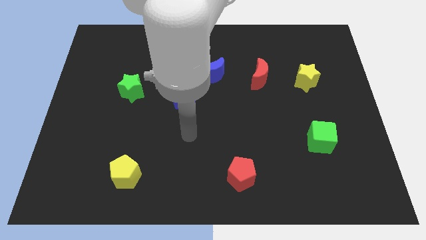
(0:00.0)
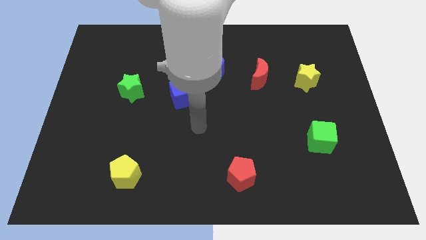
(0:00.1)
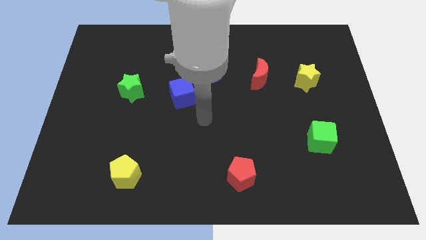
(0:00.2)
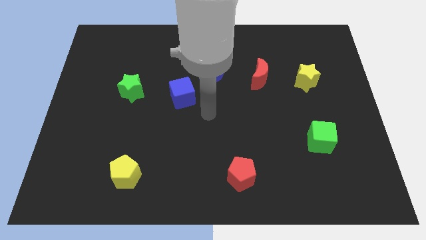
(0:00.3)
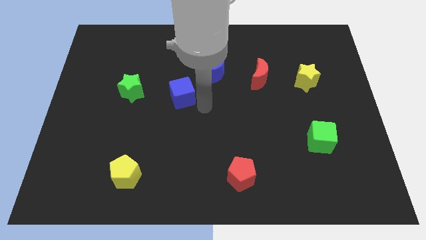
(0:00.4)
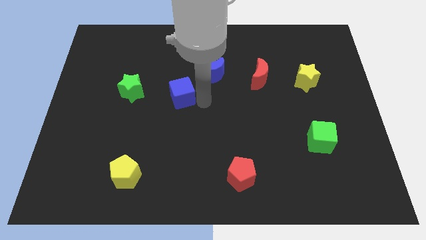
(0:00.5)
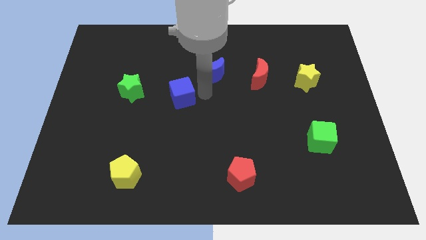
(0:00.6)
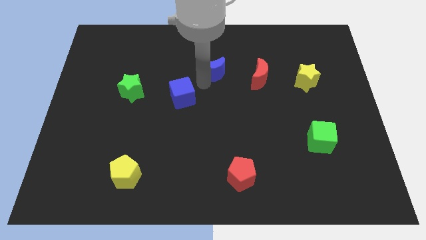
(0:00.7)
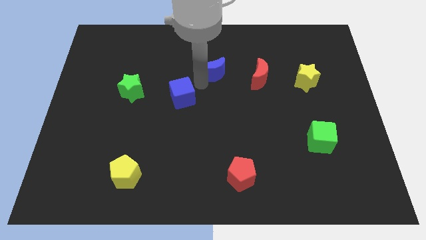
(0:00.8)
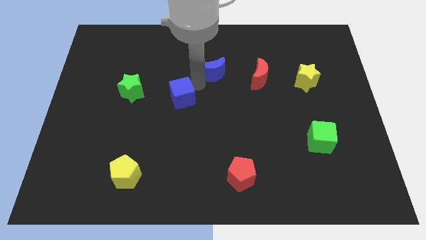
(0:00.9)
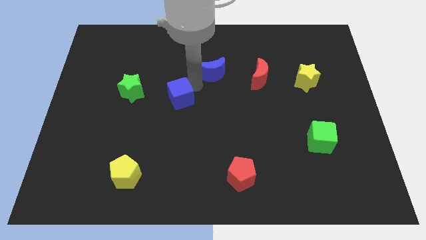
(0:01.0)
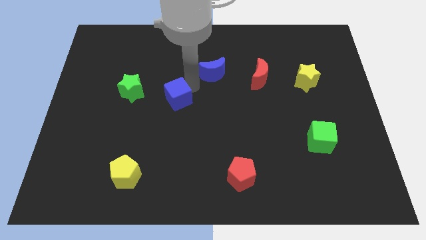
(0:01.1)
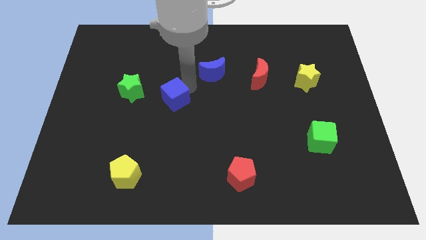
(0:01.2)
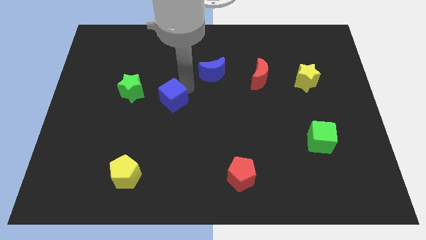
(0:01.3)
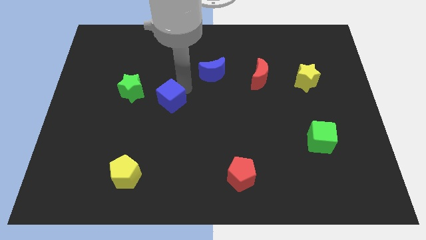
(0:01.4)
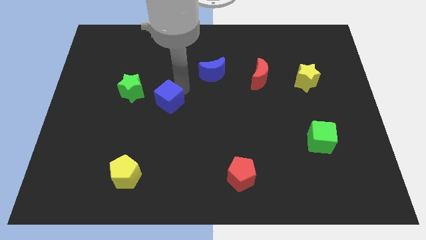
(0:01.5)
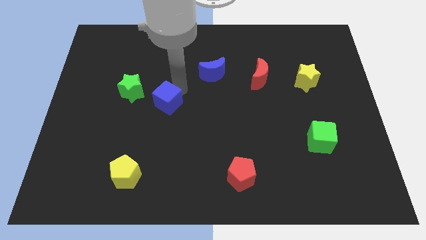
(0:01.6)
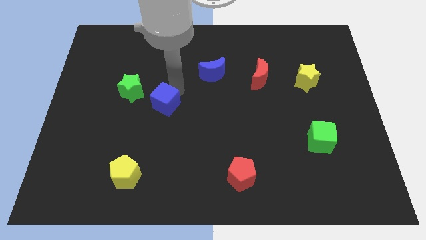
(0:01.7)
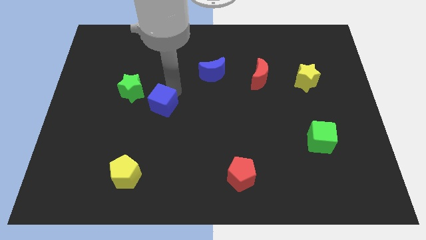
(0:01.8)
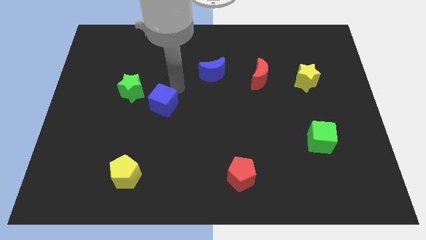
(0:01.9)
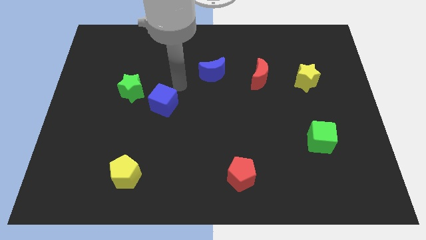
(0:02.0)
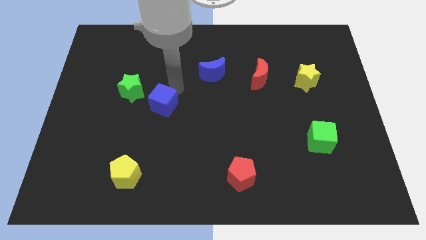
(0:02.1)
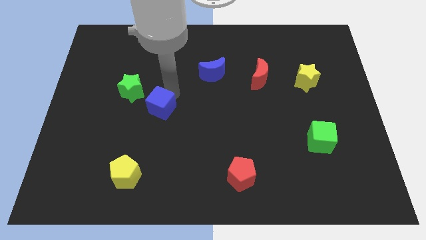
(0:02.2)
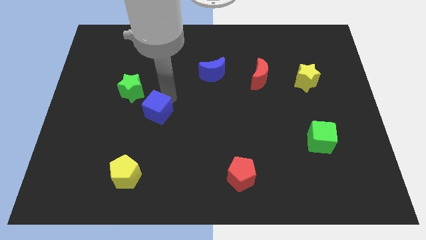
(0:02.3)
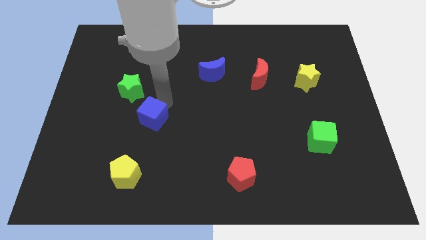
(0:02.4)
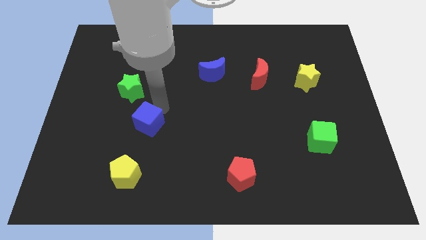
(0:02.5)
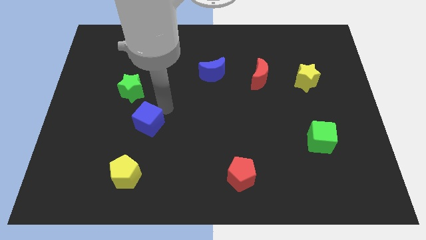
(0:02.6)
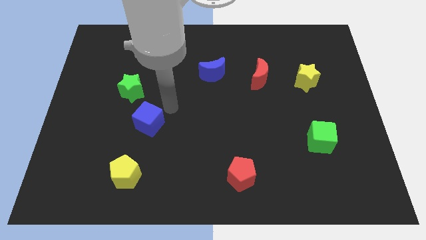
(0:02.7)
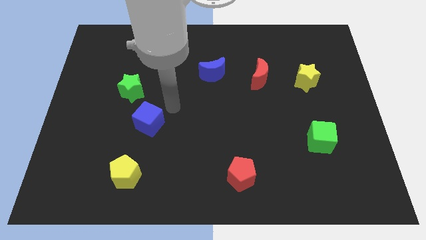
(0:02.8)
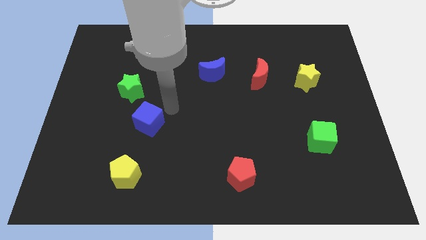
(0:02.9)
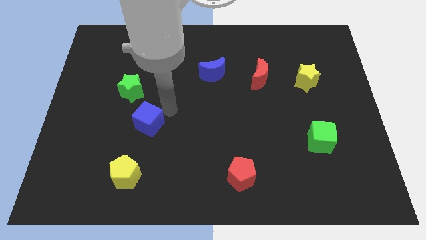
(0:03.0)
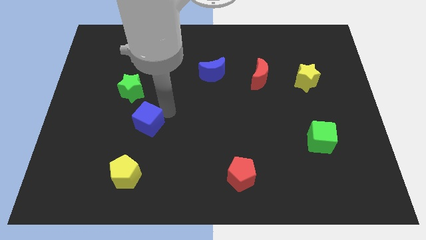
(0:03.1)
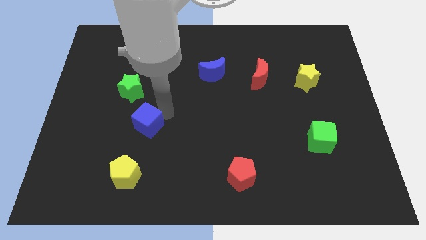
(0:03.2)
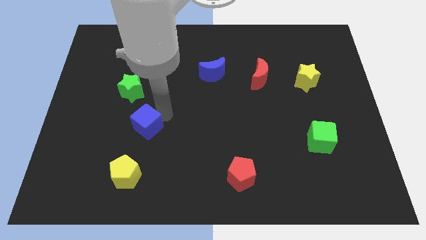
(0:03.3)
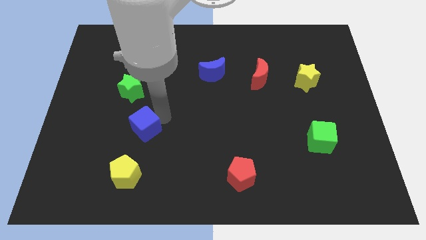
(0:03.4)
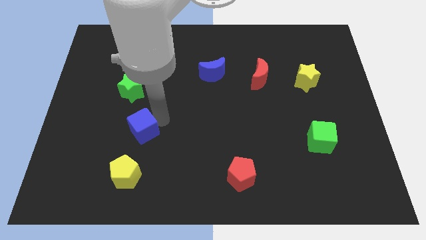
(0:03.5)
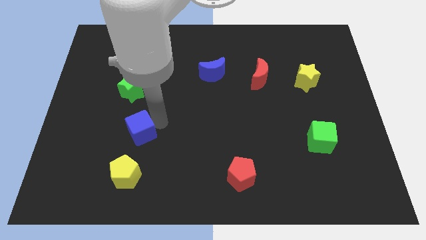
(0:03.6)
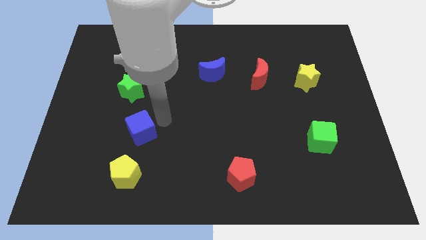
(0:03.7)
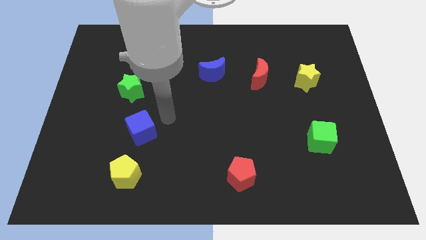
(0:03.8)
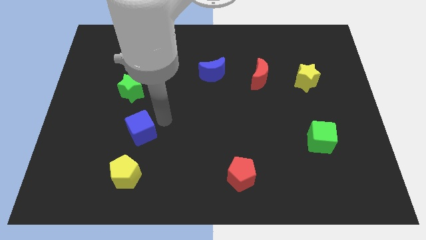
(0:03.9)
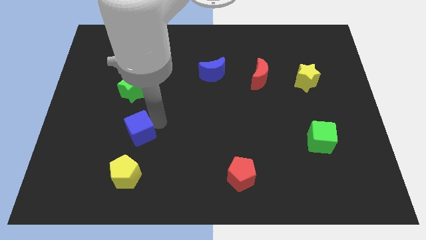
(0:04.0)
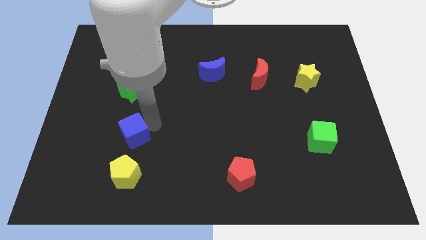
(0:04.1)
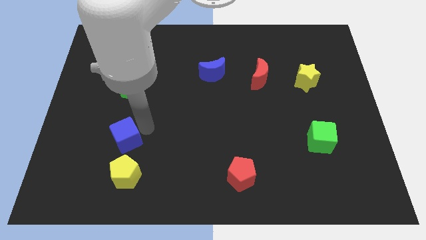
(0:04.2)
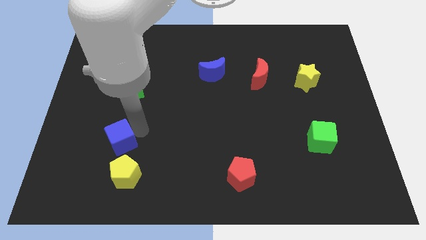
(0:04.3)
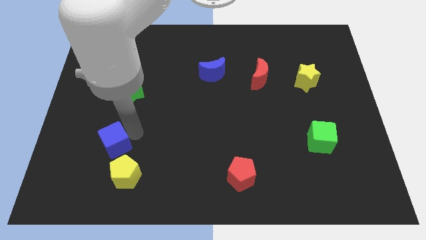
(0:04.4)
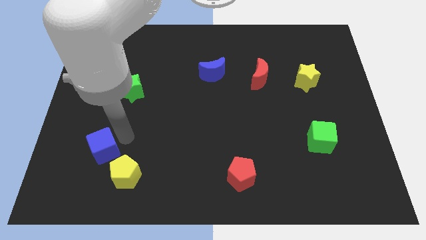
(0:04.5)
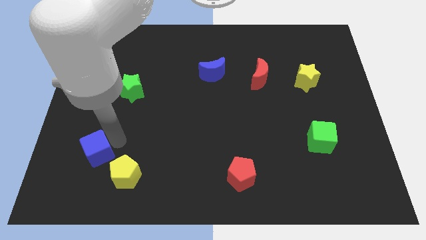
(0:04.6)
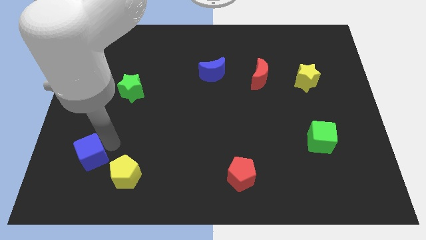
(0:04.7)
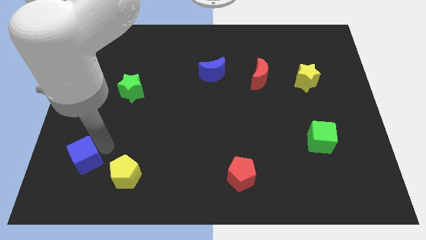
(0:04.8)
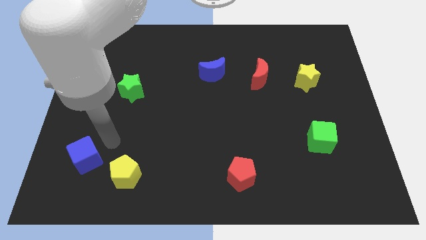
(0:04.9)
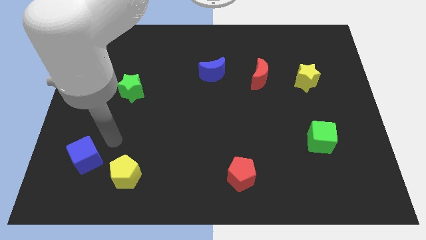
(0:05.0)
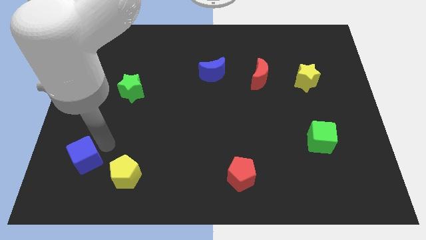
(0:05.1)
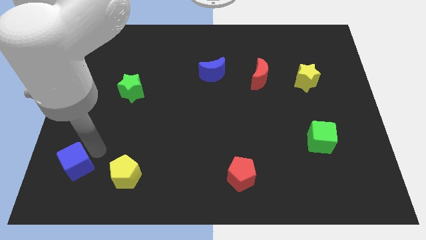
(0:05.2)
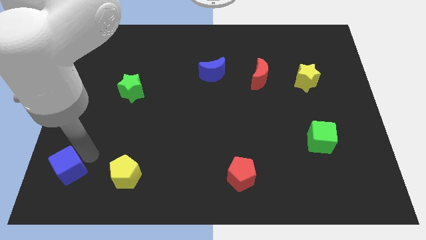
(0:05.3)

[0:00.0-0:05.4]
move the blue cube to the bottom left corner
